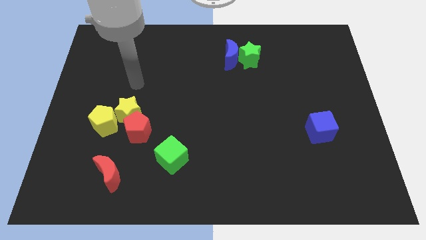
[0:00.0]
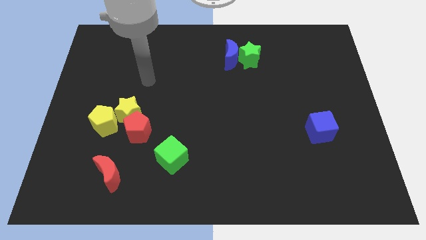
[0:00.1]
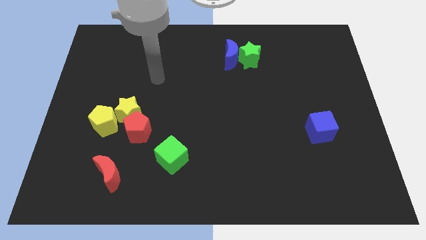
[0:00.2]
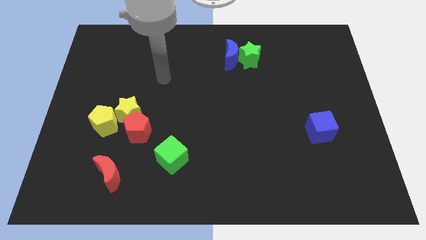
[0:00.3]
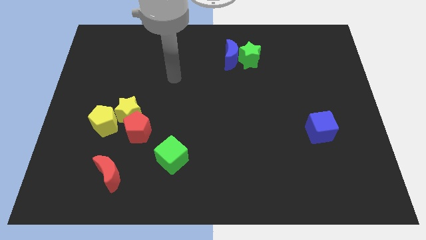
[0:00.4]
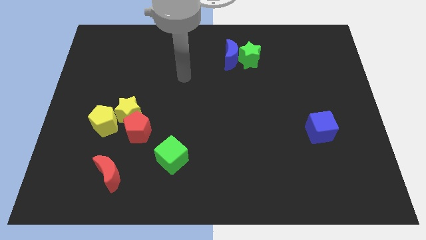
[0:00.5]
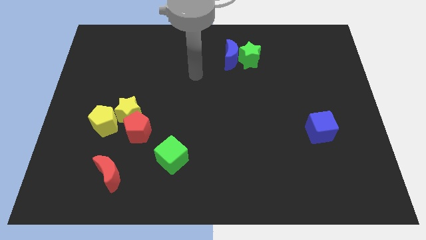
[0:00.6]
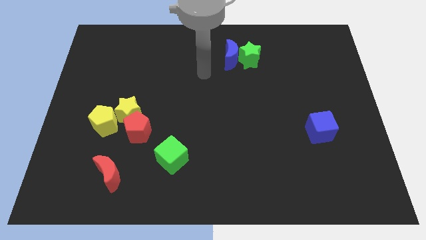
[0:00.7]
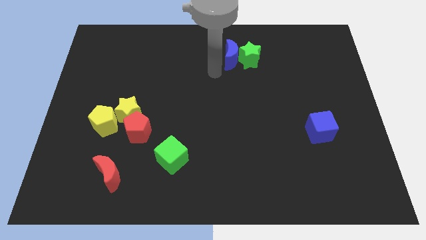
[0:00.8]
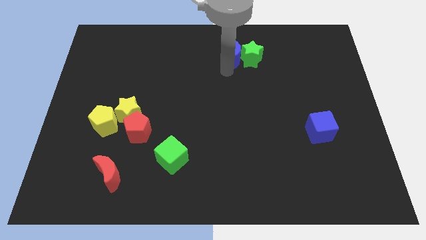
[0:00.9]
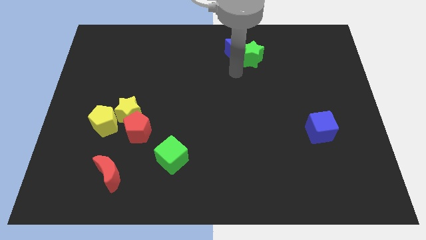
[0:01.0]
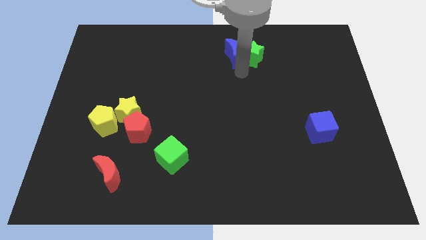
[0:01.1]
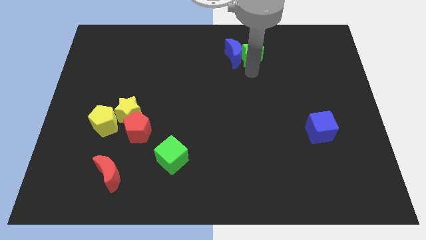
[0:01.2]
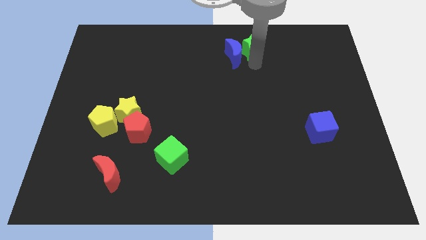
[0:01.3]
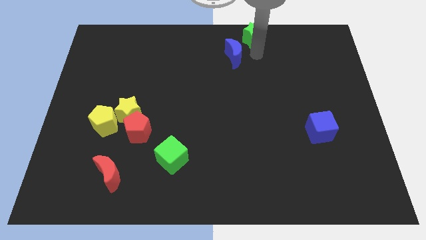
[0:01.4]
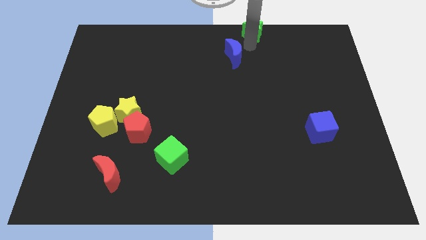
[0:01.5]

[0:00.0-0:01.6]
move the blue moon away from the green star

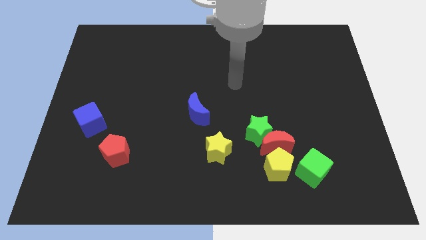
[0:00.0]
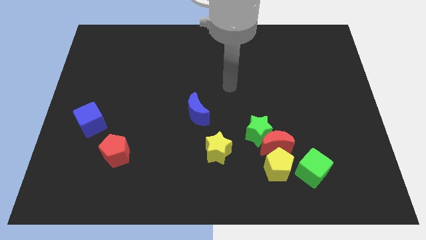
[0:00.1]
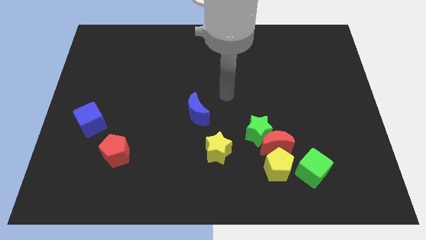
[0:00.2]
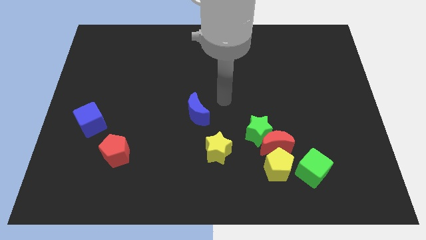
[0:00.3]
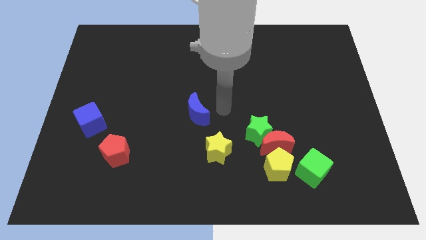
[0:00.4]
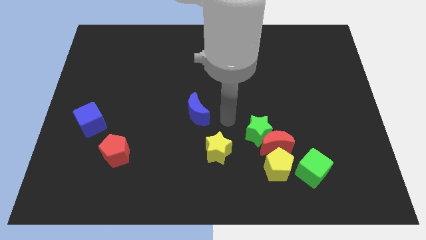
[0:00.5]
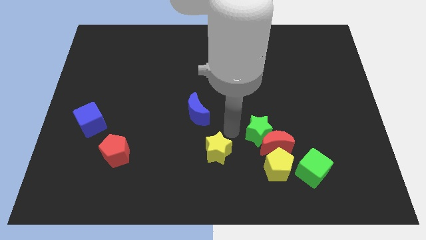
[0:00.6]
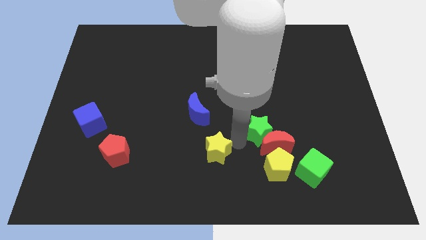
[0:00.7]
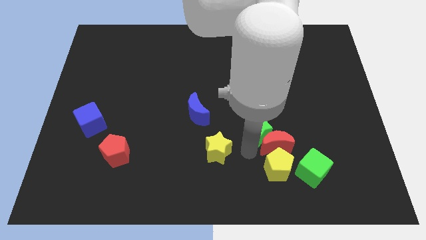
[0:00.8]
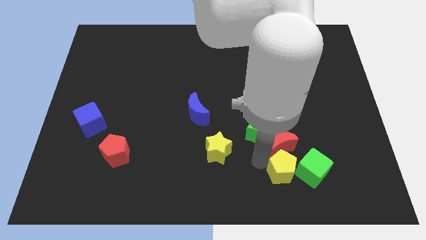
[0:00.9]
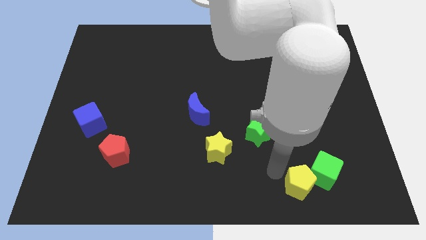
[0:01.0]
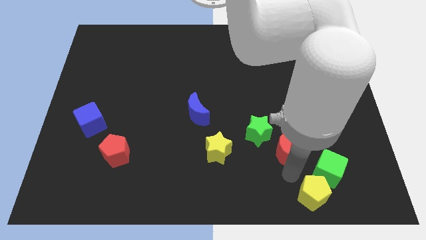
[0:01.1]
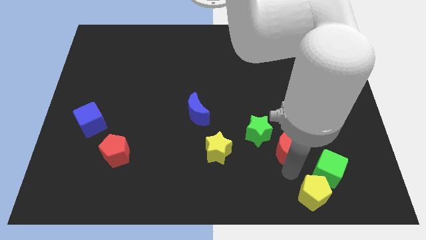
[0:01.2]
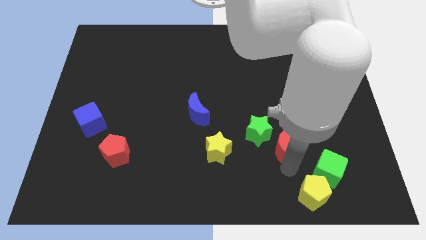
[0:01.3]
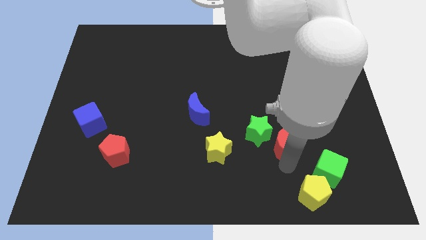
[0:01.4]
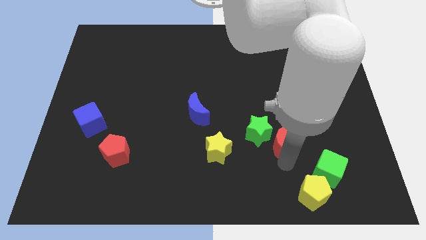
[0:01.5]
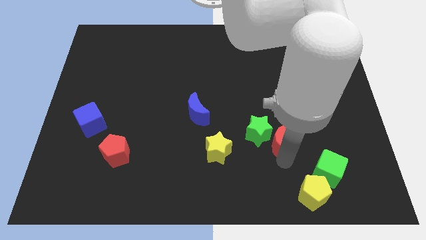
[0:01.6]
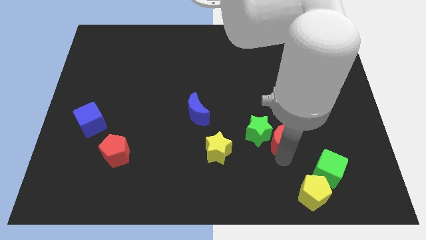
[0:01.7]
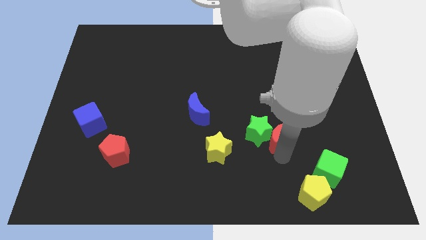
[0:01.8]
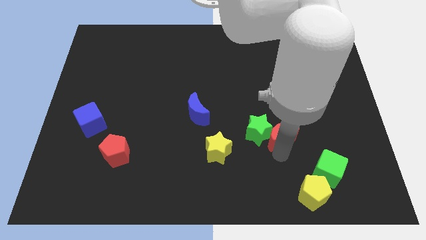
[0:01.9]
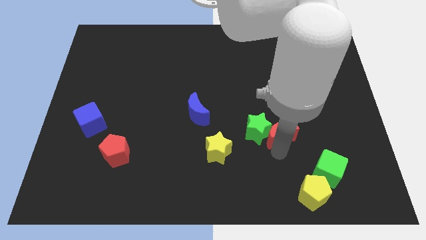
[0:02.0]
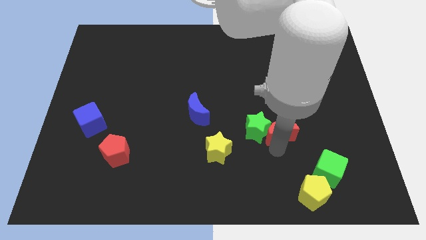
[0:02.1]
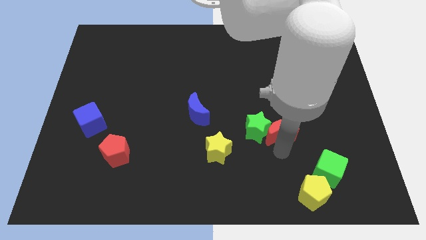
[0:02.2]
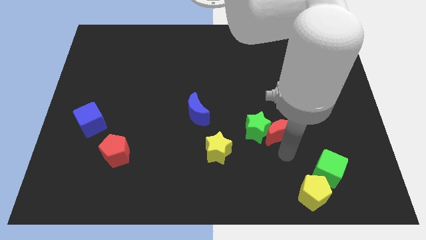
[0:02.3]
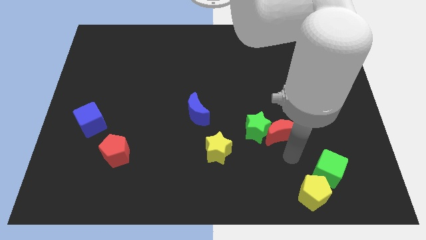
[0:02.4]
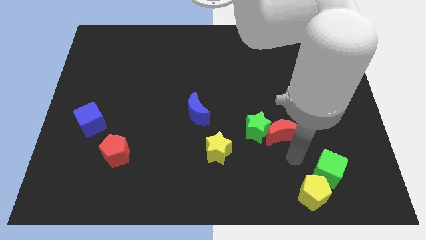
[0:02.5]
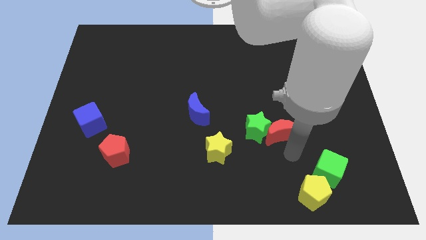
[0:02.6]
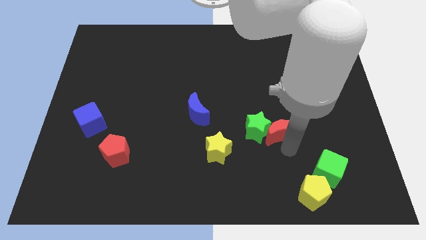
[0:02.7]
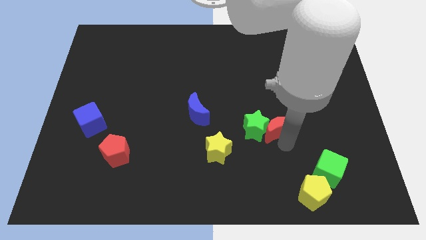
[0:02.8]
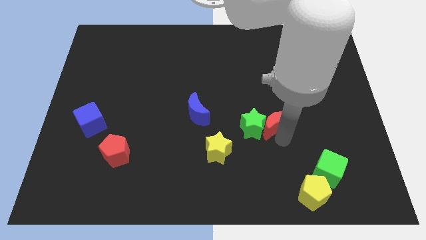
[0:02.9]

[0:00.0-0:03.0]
move the red moon away from the group

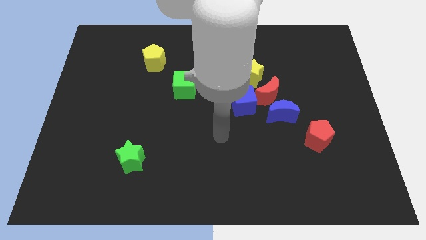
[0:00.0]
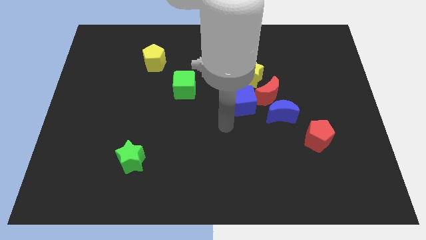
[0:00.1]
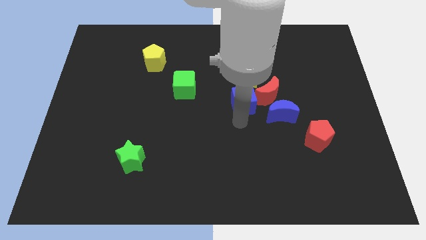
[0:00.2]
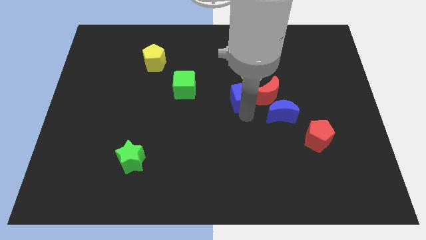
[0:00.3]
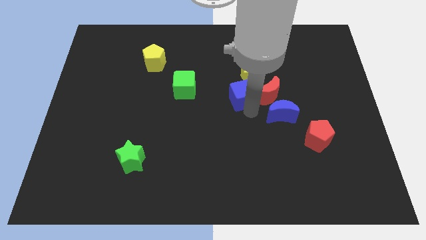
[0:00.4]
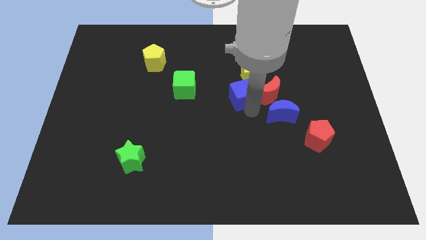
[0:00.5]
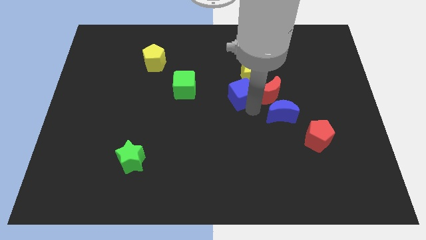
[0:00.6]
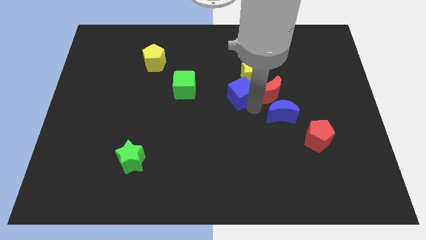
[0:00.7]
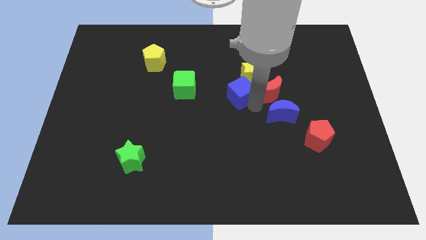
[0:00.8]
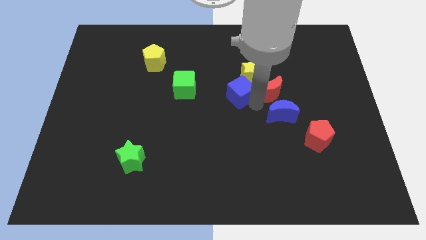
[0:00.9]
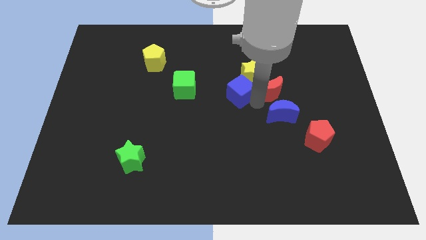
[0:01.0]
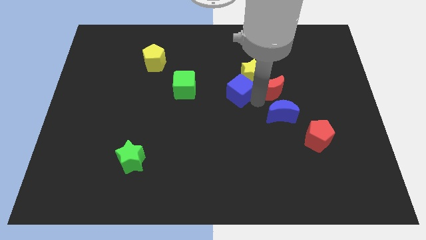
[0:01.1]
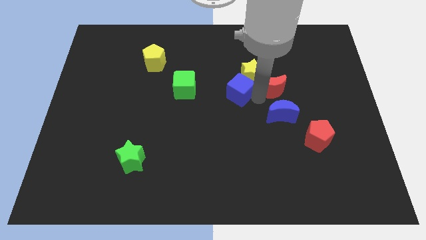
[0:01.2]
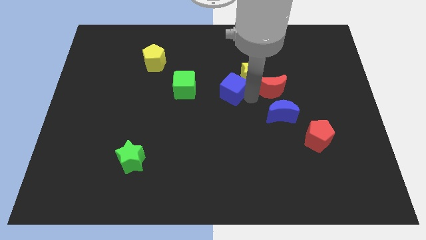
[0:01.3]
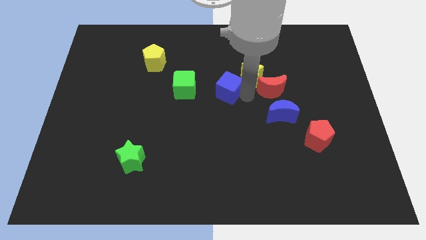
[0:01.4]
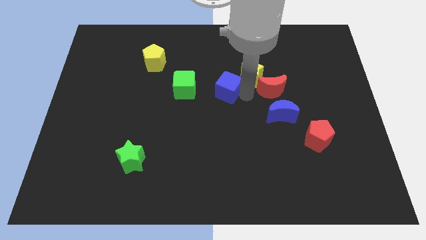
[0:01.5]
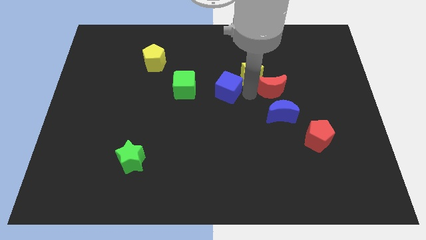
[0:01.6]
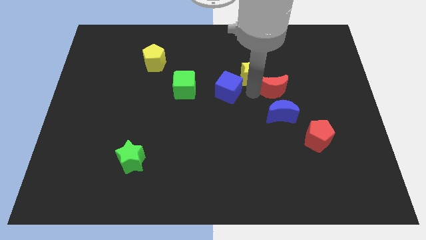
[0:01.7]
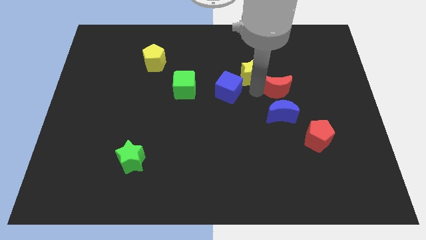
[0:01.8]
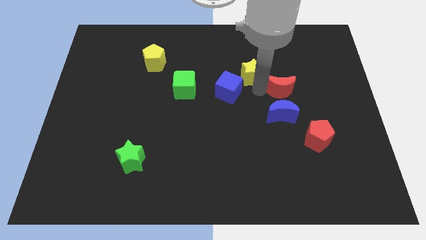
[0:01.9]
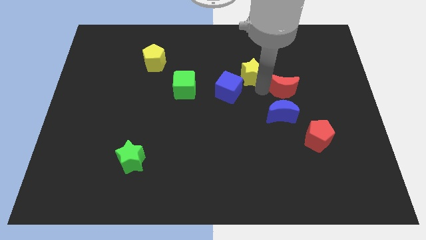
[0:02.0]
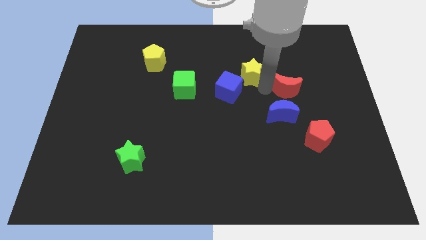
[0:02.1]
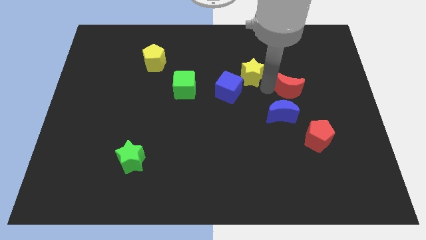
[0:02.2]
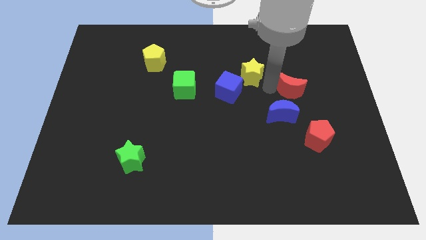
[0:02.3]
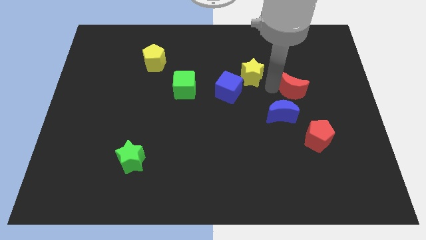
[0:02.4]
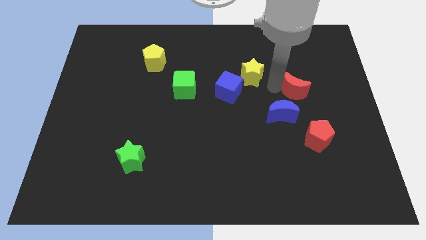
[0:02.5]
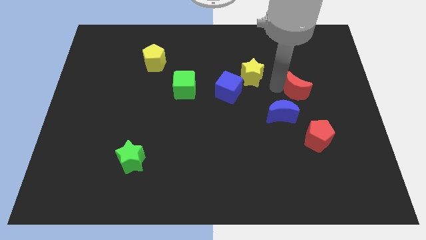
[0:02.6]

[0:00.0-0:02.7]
move the red moon away from the blue moon, blue cube, and yellow star

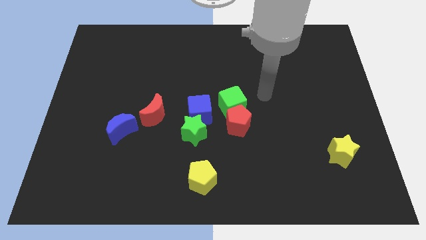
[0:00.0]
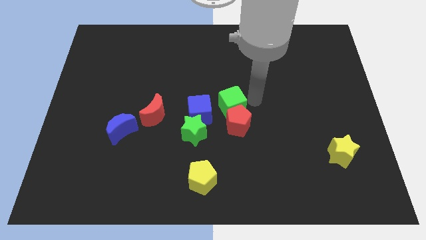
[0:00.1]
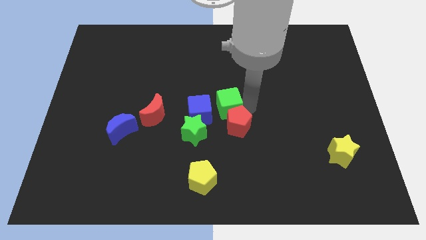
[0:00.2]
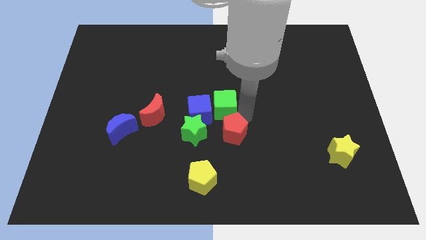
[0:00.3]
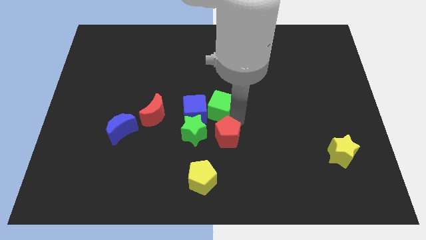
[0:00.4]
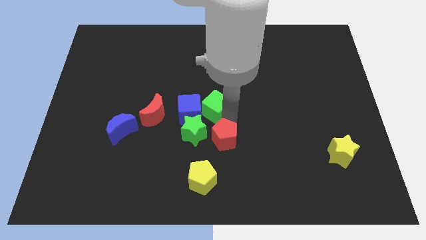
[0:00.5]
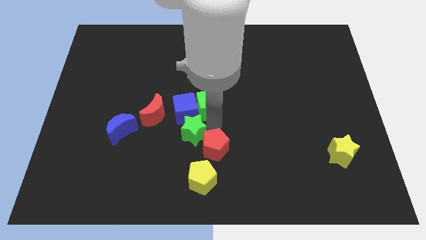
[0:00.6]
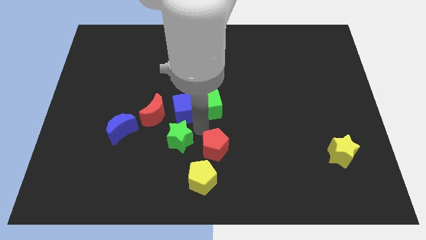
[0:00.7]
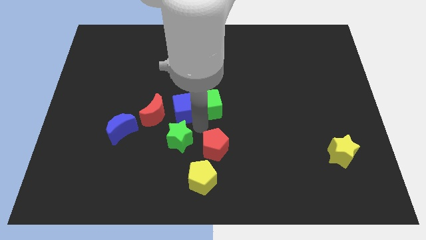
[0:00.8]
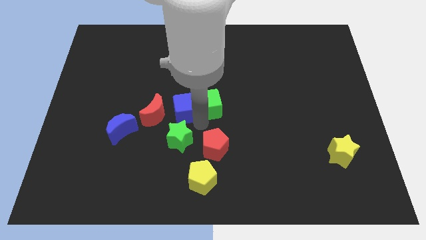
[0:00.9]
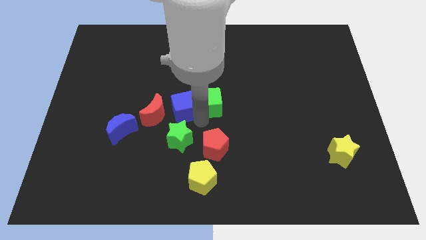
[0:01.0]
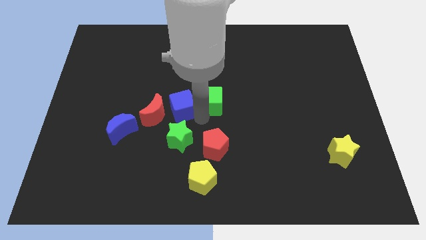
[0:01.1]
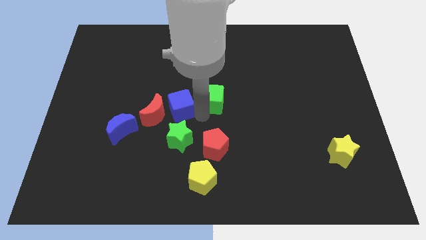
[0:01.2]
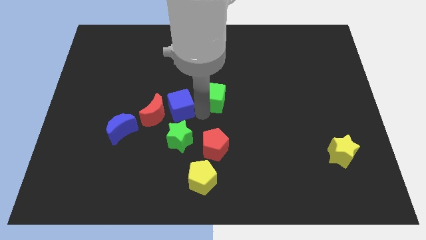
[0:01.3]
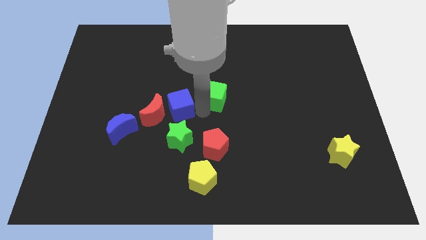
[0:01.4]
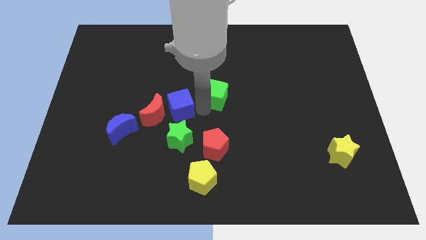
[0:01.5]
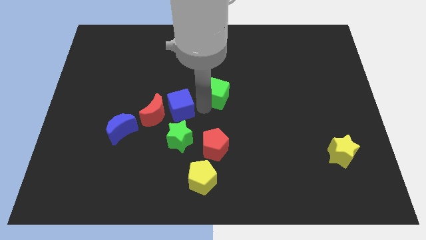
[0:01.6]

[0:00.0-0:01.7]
pull the green cube apart from the red pentagon and blue cube

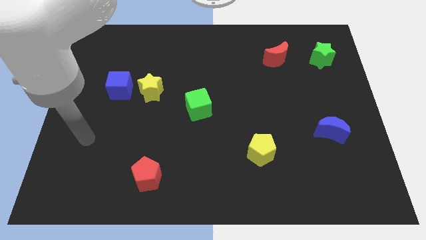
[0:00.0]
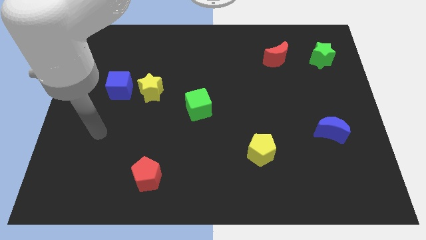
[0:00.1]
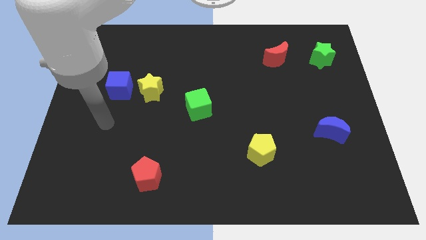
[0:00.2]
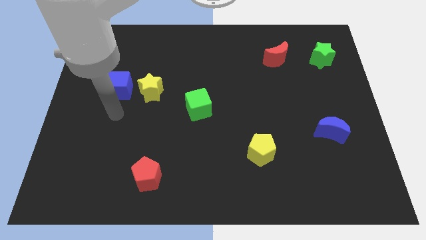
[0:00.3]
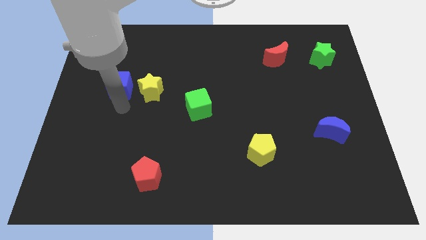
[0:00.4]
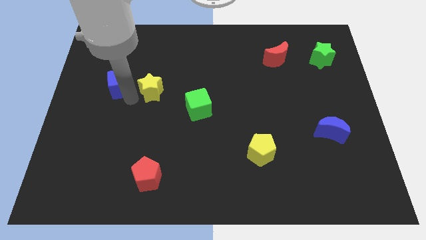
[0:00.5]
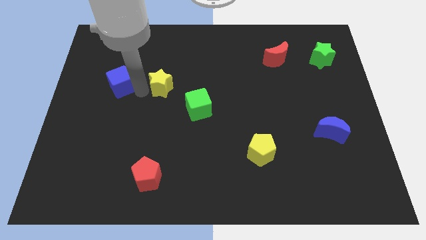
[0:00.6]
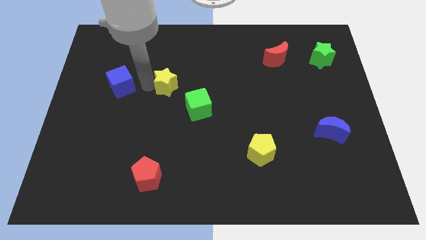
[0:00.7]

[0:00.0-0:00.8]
pull the blue cube apart from the yellow star
